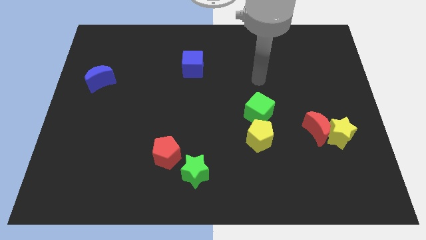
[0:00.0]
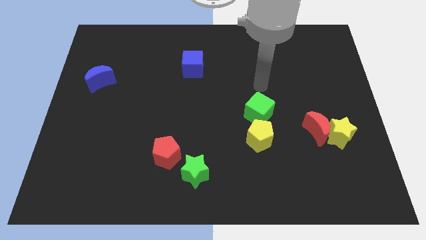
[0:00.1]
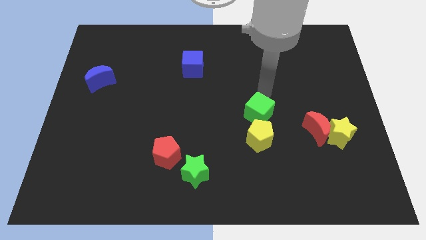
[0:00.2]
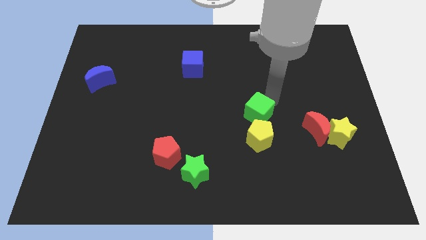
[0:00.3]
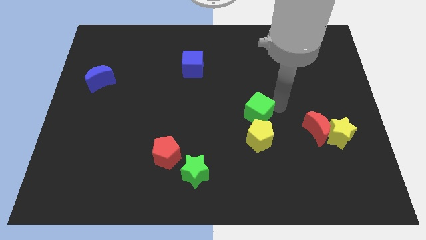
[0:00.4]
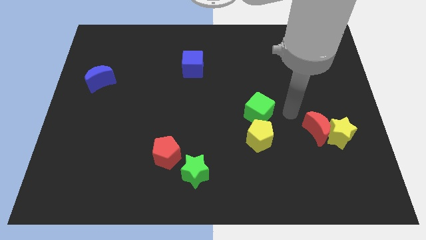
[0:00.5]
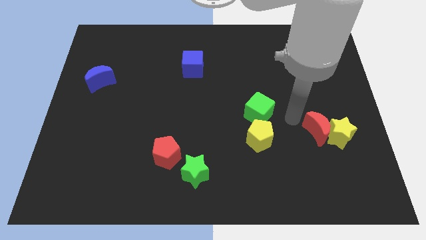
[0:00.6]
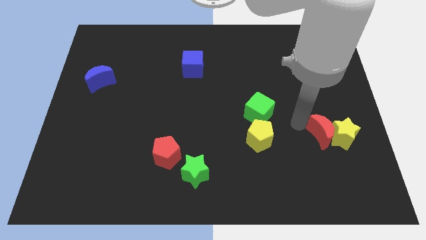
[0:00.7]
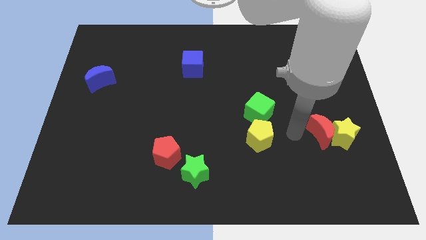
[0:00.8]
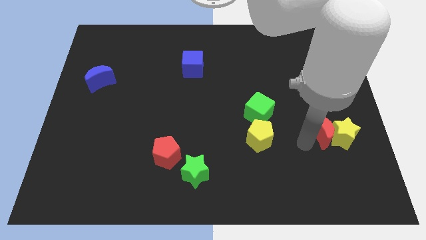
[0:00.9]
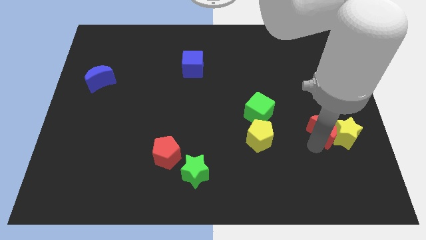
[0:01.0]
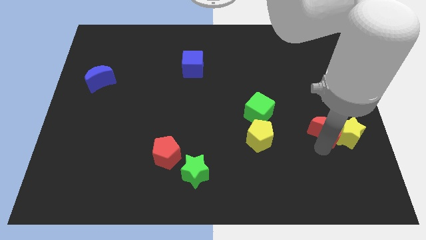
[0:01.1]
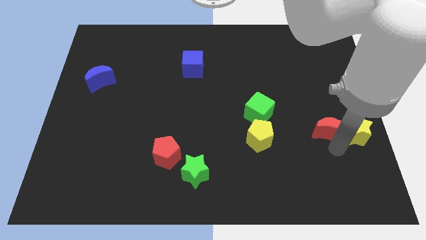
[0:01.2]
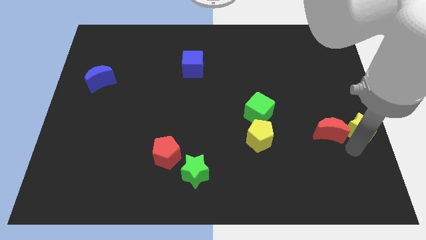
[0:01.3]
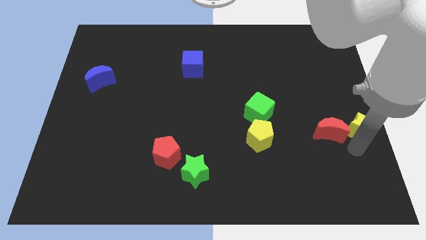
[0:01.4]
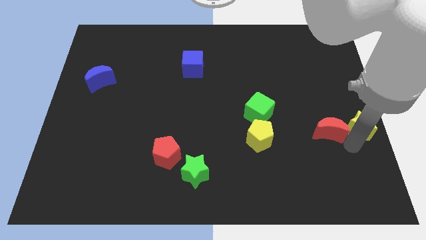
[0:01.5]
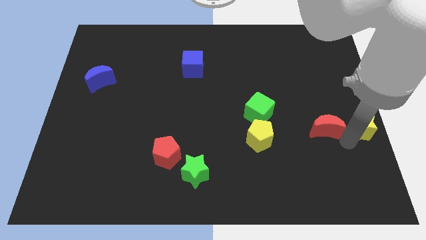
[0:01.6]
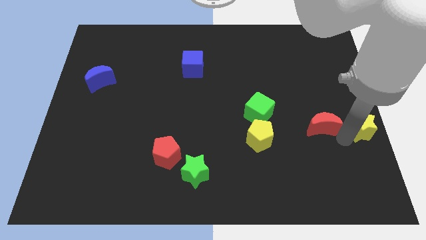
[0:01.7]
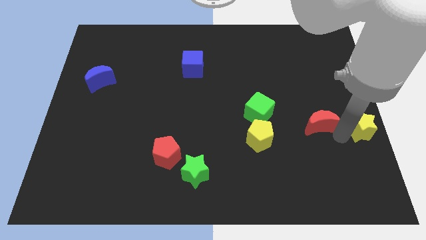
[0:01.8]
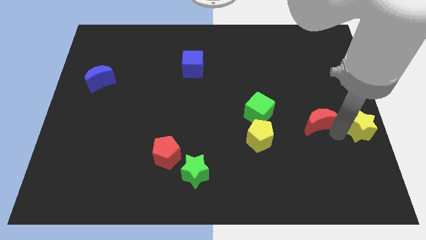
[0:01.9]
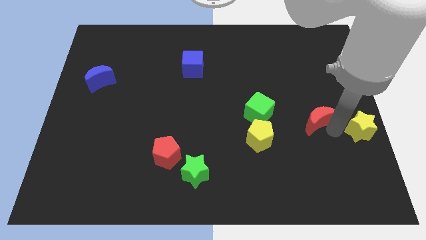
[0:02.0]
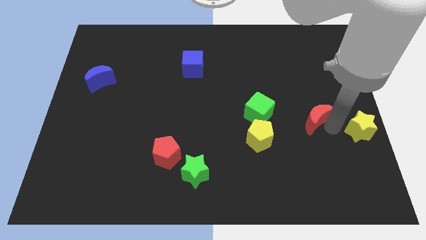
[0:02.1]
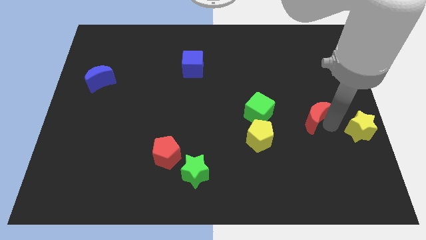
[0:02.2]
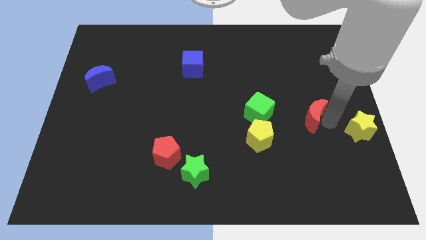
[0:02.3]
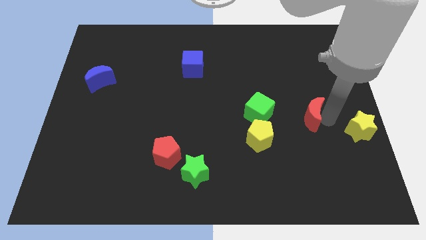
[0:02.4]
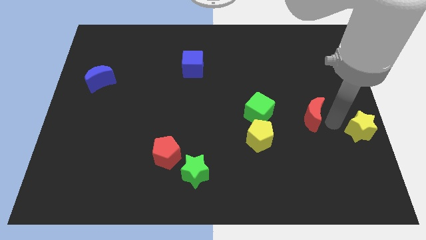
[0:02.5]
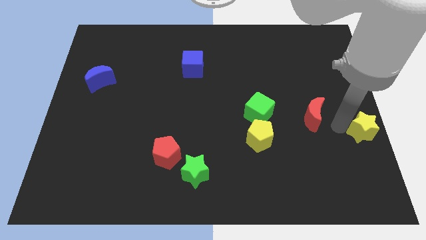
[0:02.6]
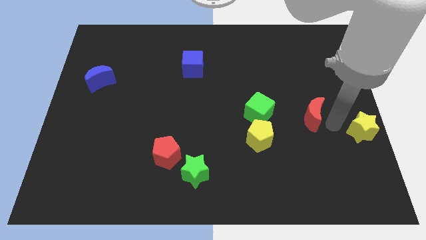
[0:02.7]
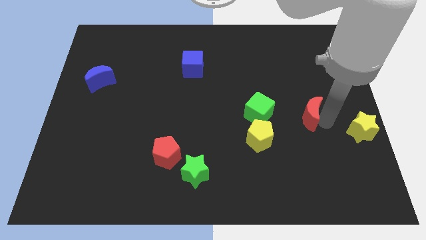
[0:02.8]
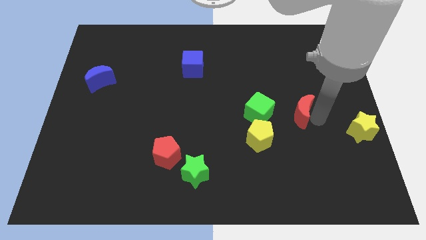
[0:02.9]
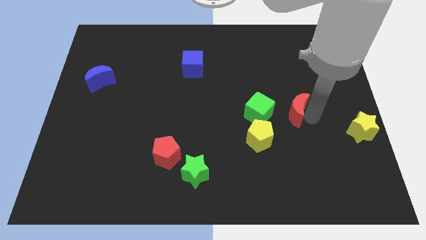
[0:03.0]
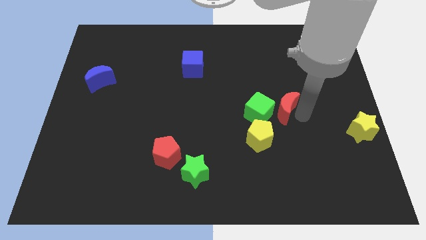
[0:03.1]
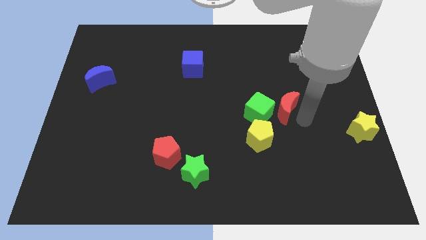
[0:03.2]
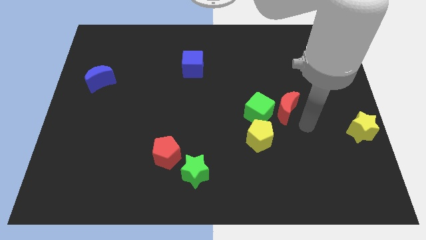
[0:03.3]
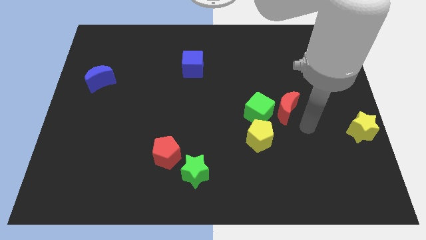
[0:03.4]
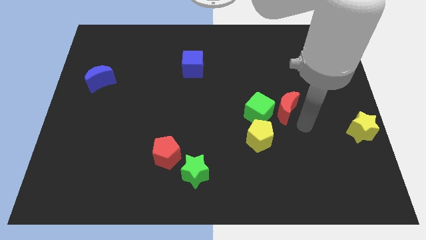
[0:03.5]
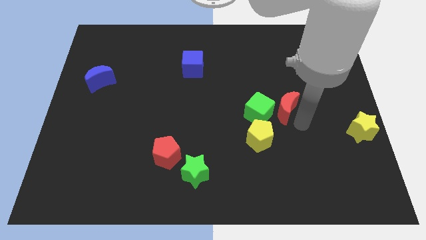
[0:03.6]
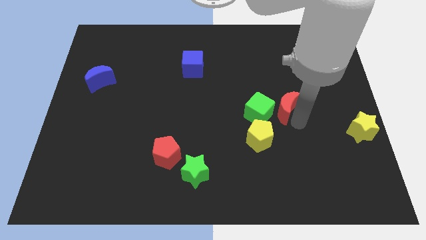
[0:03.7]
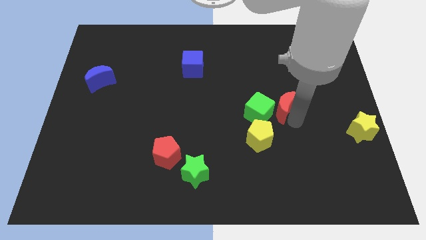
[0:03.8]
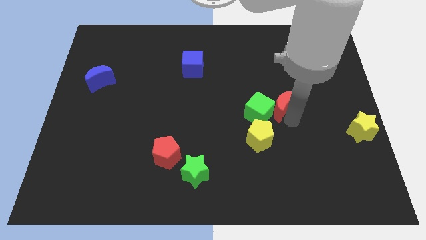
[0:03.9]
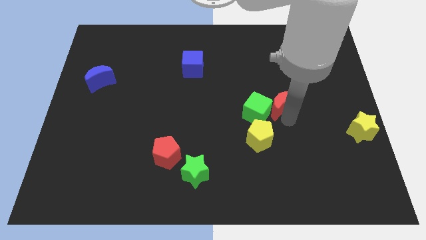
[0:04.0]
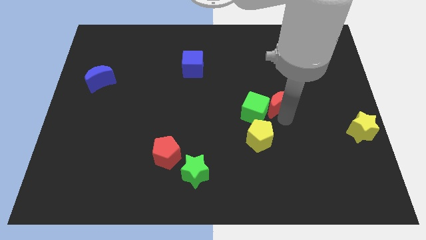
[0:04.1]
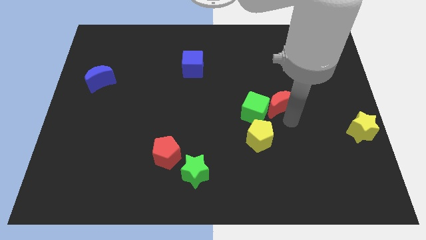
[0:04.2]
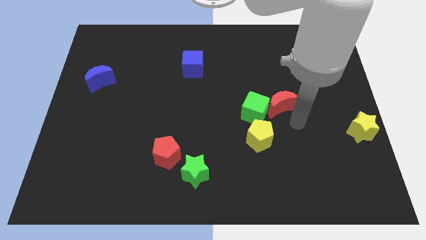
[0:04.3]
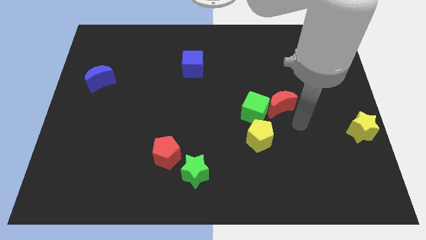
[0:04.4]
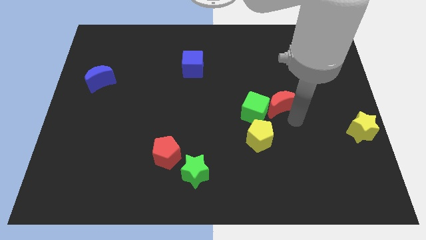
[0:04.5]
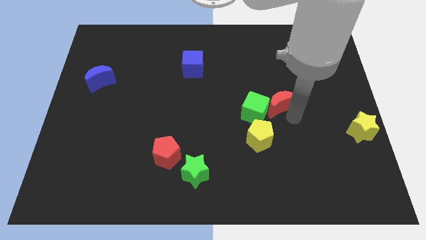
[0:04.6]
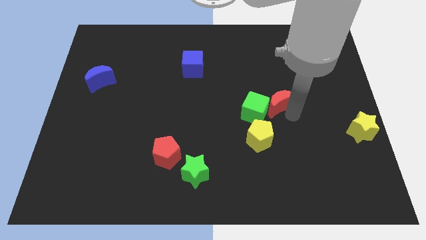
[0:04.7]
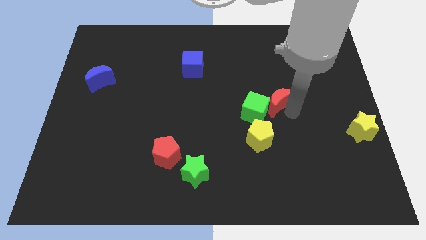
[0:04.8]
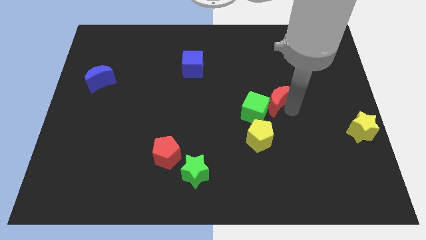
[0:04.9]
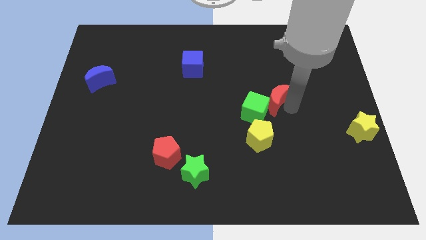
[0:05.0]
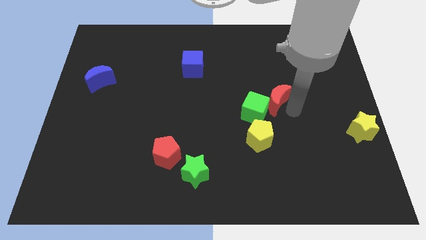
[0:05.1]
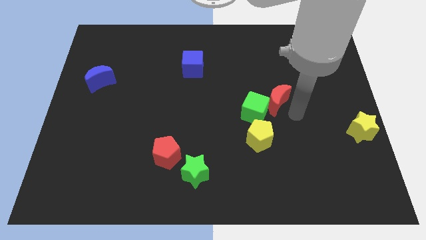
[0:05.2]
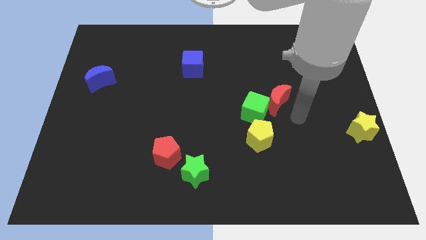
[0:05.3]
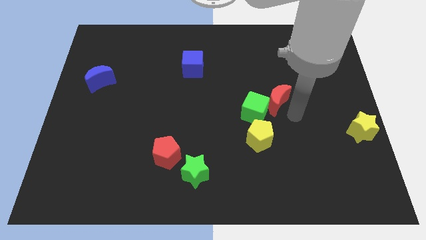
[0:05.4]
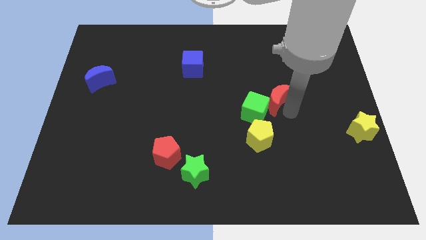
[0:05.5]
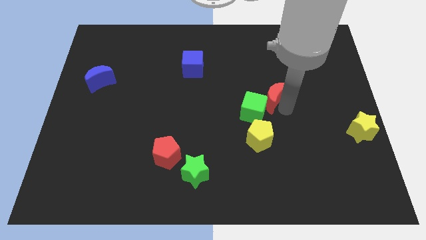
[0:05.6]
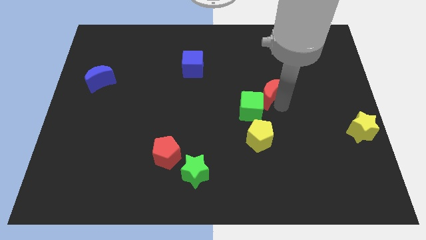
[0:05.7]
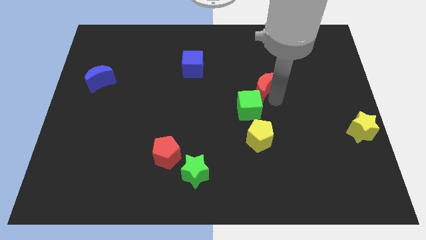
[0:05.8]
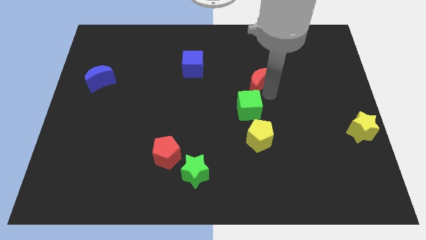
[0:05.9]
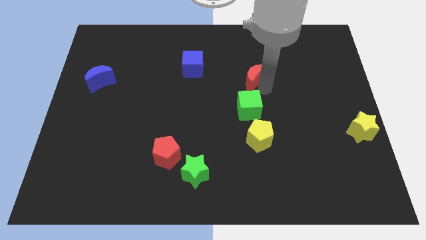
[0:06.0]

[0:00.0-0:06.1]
push the red moon up and to the left

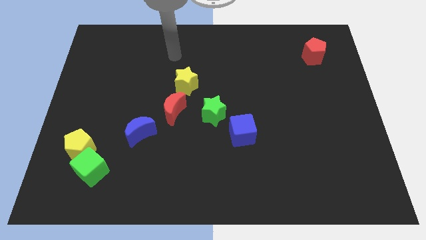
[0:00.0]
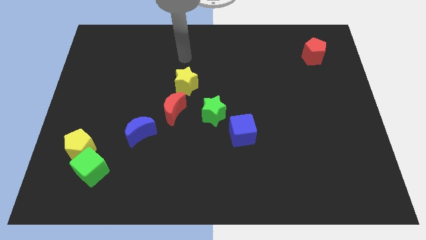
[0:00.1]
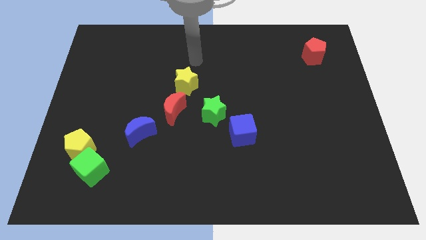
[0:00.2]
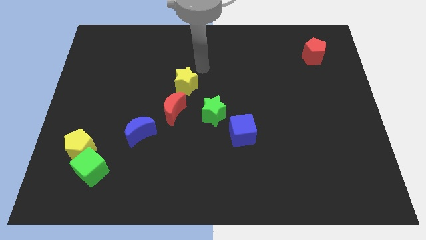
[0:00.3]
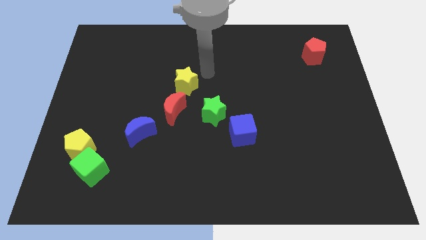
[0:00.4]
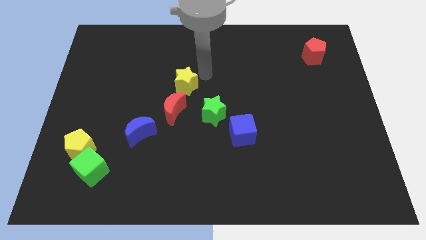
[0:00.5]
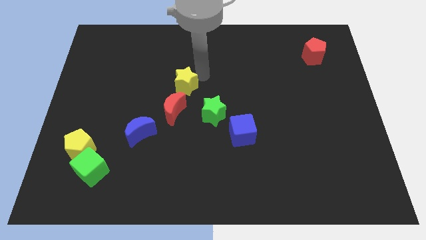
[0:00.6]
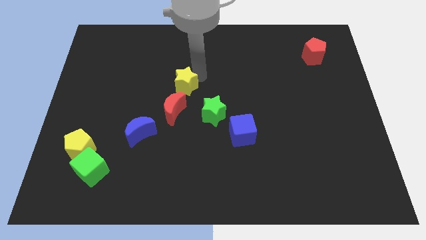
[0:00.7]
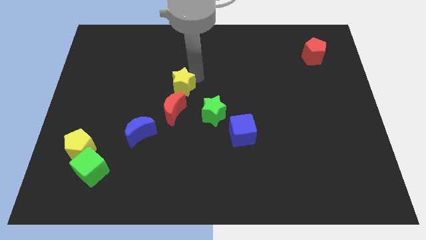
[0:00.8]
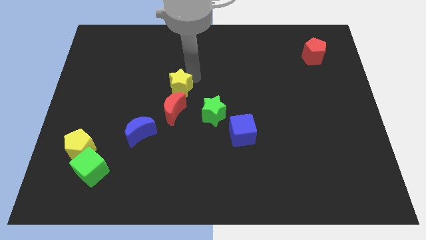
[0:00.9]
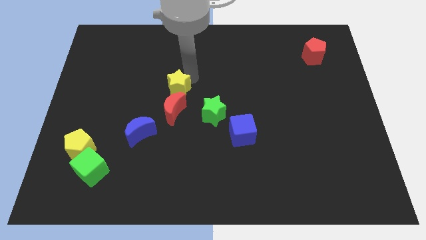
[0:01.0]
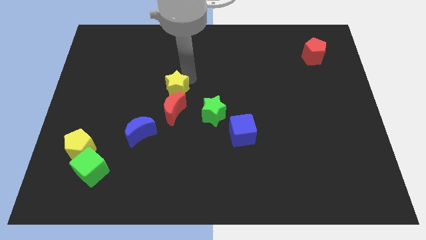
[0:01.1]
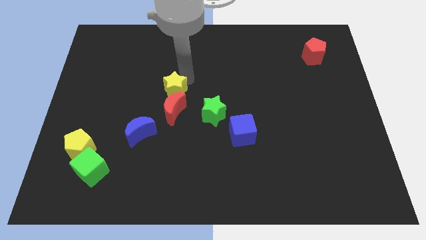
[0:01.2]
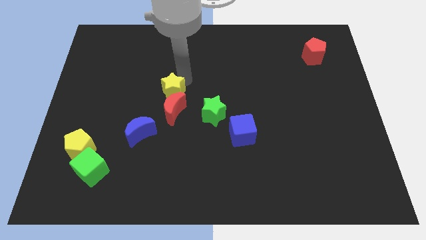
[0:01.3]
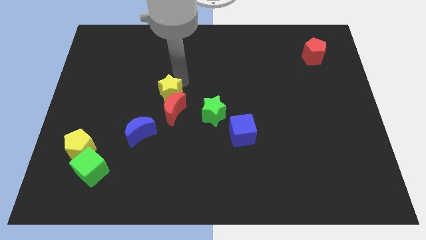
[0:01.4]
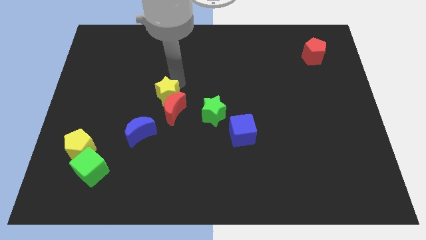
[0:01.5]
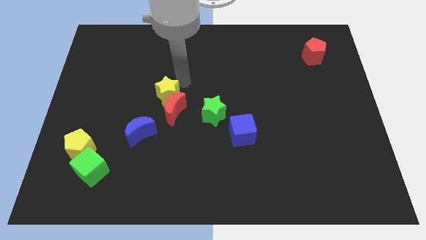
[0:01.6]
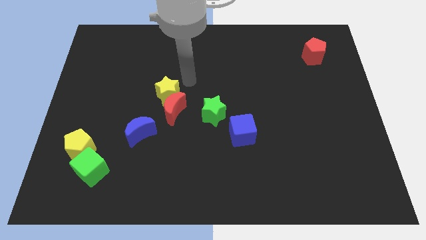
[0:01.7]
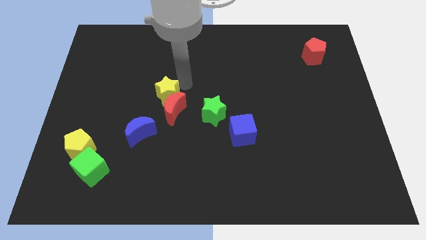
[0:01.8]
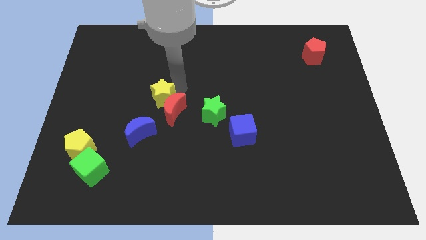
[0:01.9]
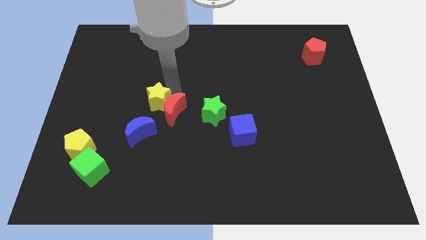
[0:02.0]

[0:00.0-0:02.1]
move the yellow star a bit diagonally down and left
